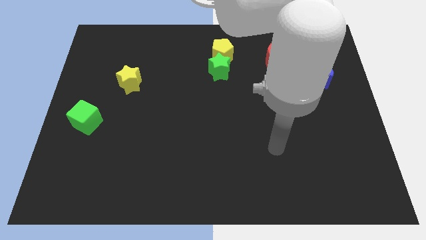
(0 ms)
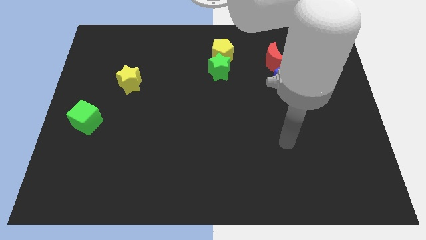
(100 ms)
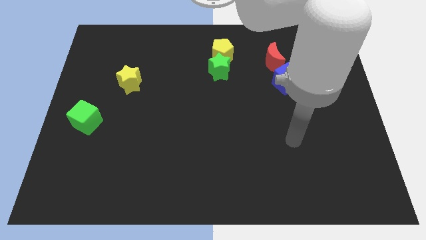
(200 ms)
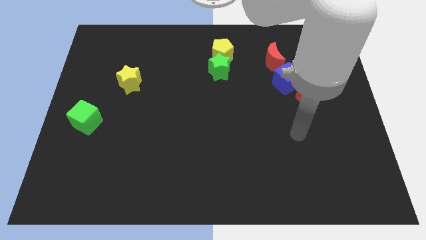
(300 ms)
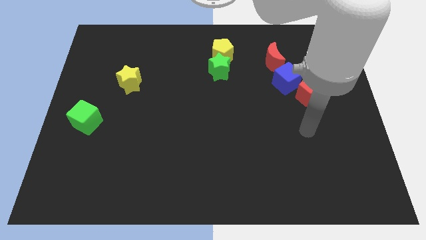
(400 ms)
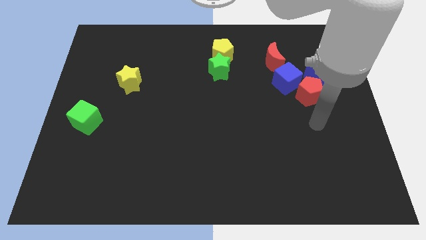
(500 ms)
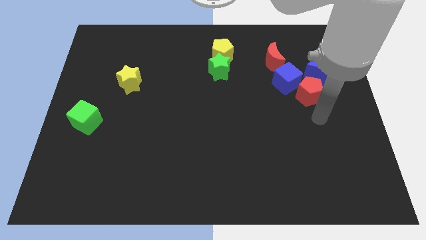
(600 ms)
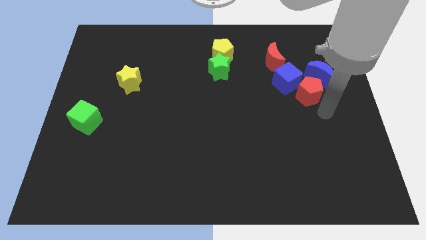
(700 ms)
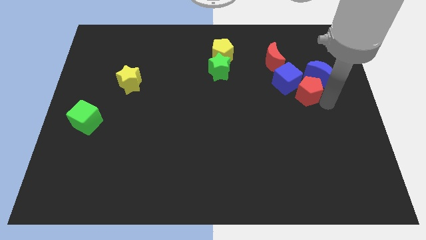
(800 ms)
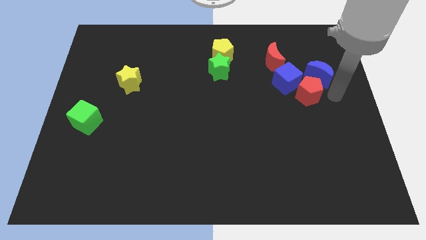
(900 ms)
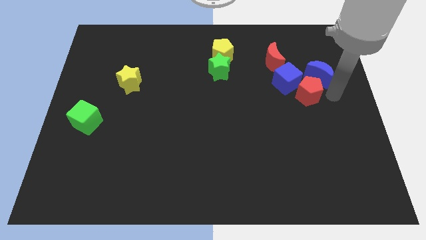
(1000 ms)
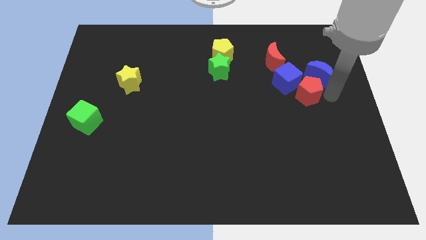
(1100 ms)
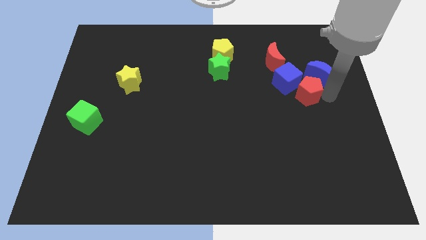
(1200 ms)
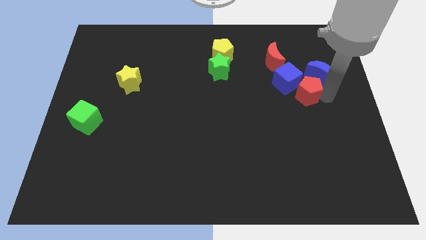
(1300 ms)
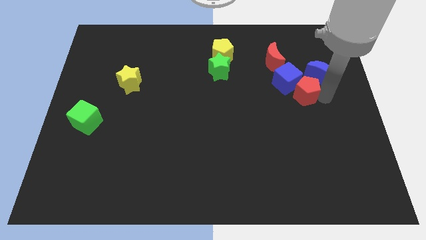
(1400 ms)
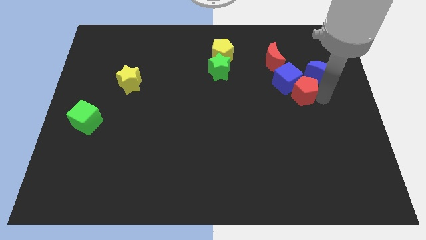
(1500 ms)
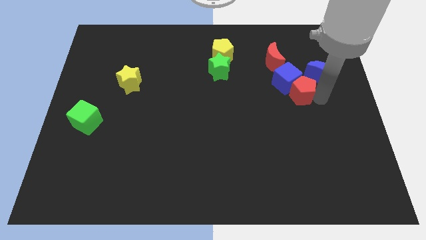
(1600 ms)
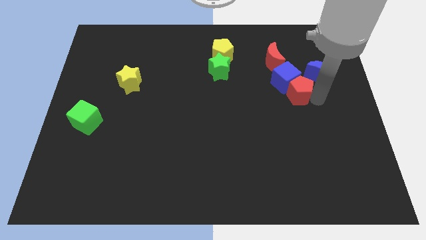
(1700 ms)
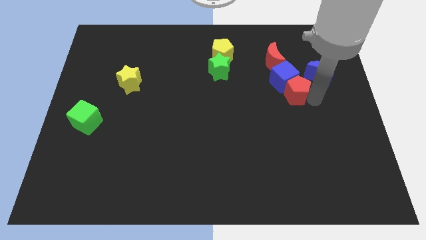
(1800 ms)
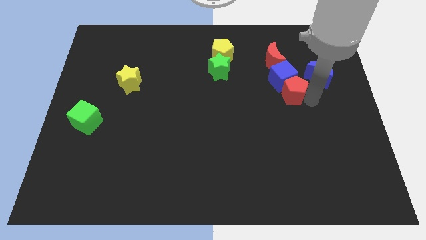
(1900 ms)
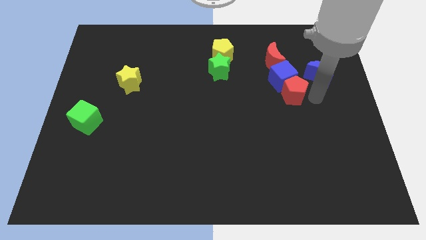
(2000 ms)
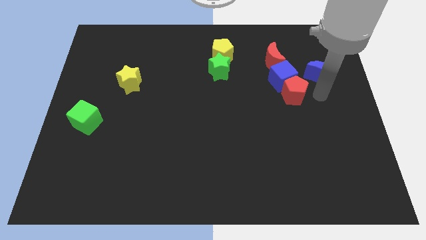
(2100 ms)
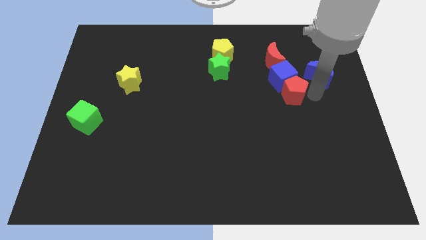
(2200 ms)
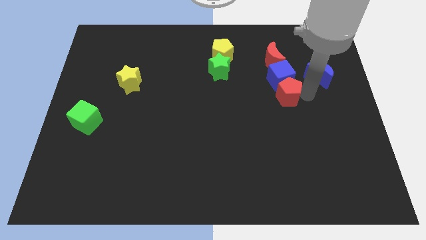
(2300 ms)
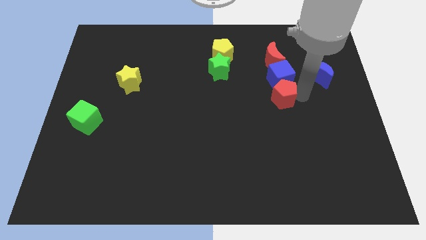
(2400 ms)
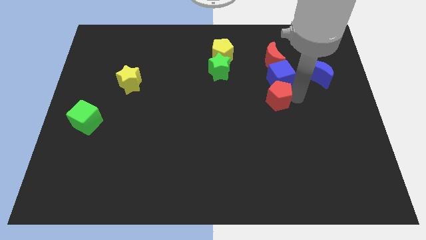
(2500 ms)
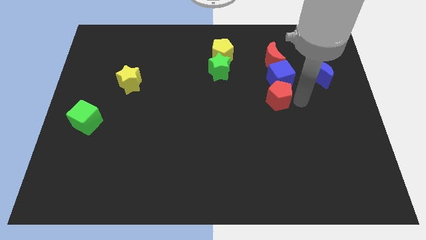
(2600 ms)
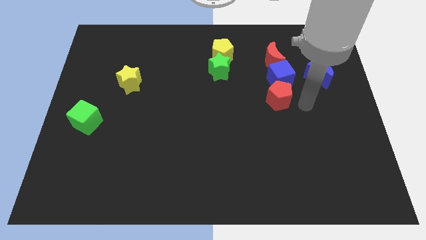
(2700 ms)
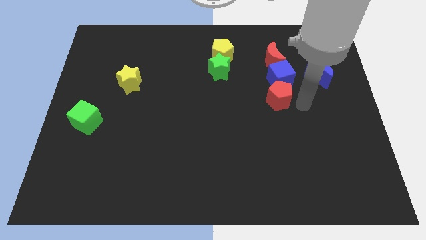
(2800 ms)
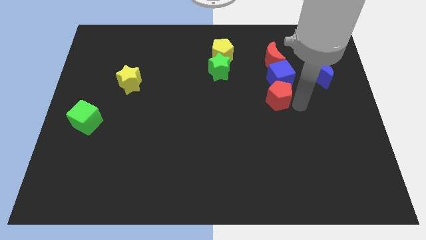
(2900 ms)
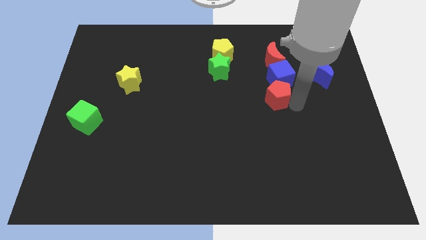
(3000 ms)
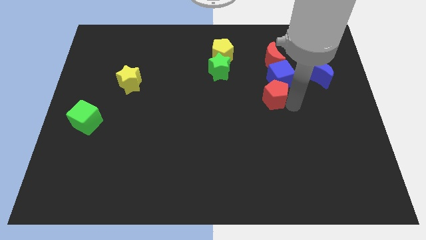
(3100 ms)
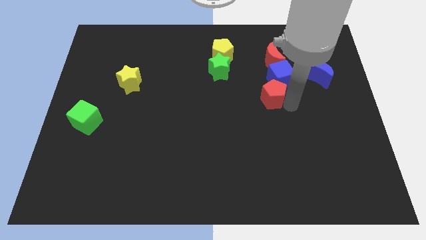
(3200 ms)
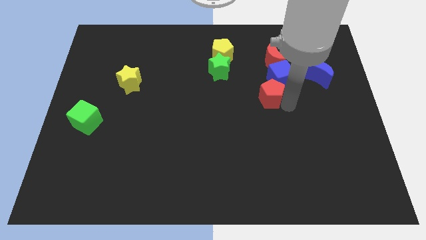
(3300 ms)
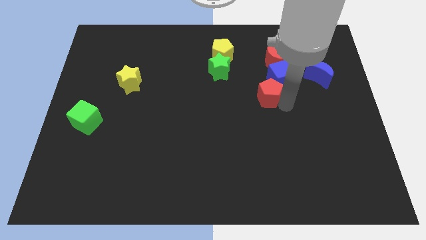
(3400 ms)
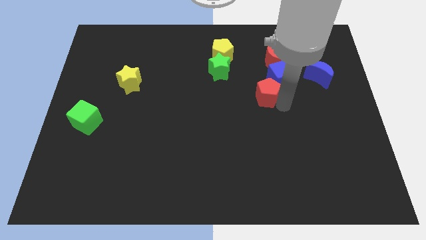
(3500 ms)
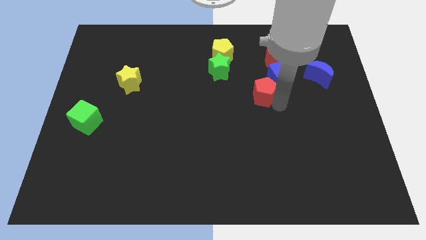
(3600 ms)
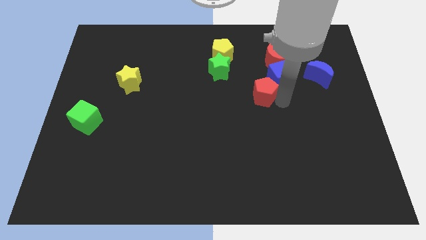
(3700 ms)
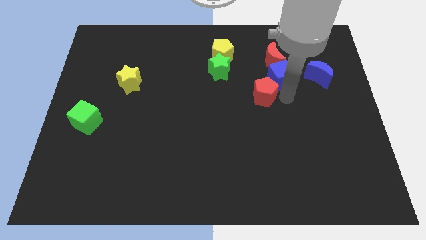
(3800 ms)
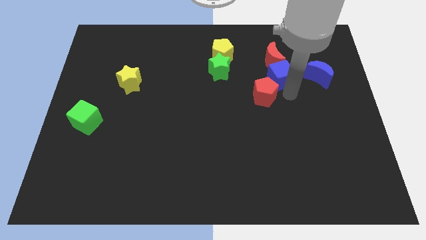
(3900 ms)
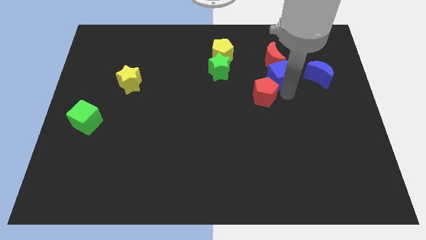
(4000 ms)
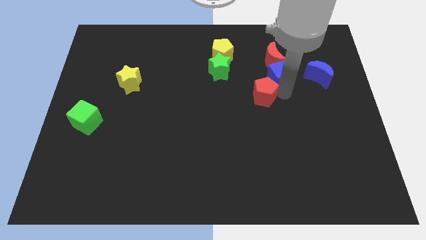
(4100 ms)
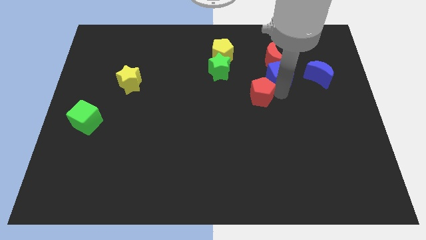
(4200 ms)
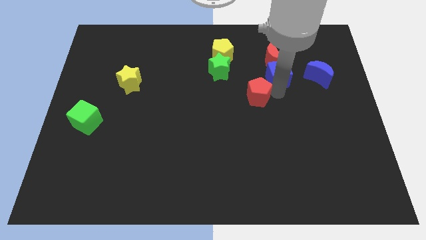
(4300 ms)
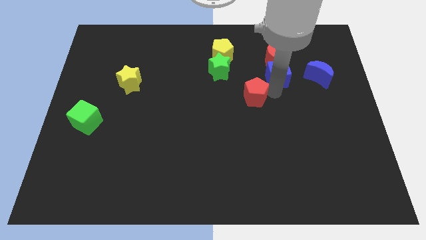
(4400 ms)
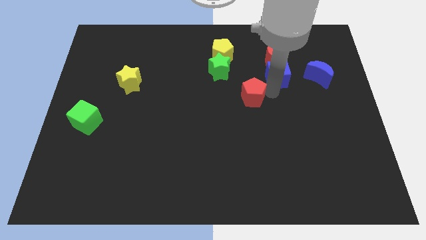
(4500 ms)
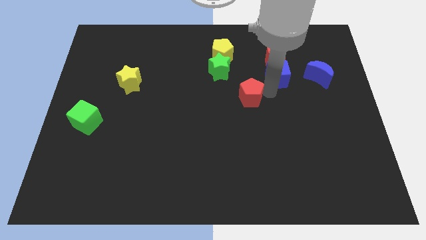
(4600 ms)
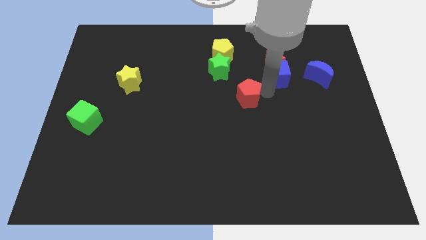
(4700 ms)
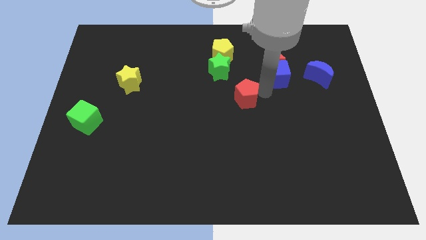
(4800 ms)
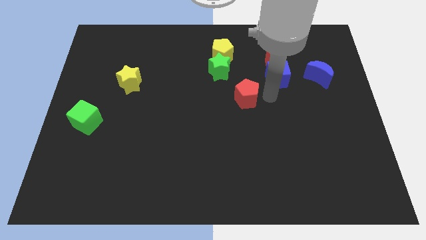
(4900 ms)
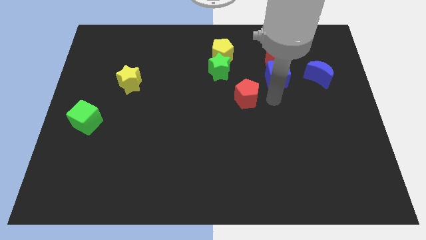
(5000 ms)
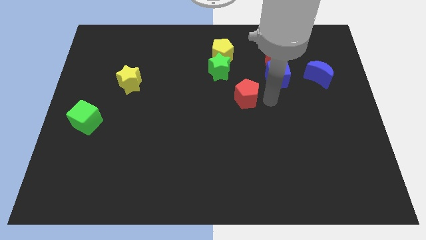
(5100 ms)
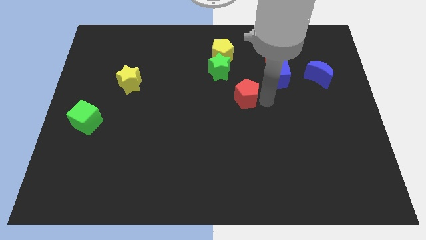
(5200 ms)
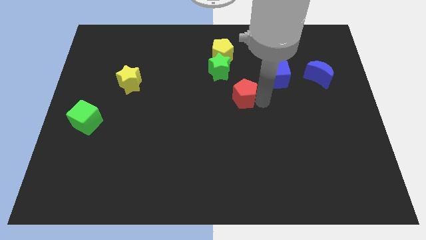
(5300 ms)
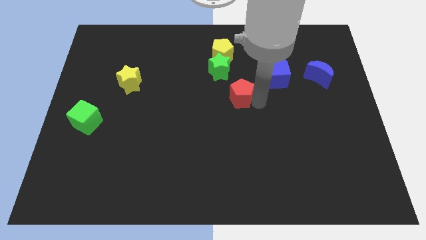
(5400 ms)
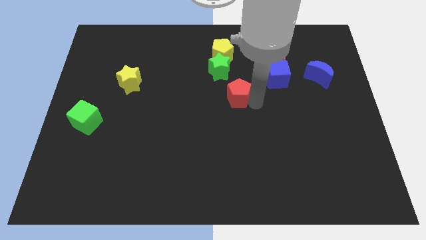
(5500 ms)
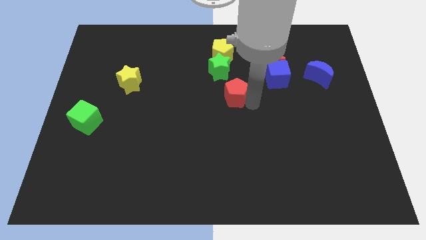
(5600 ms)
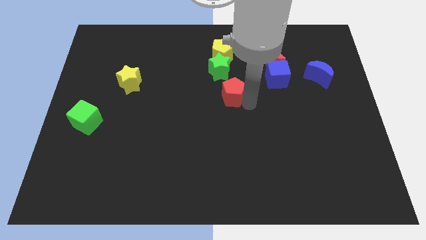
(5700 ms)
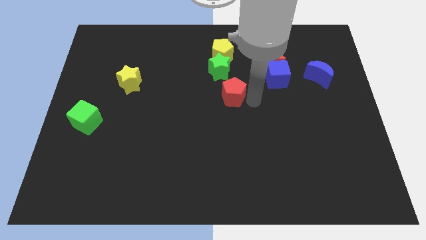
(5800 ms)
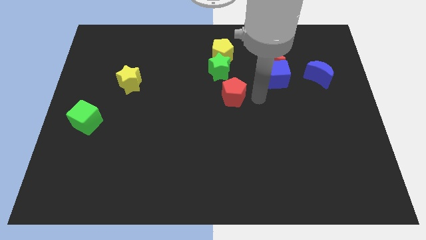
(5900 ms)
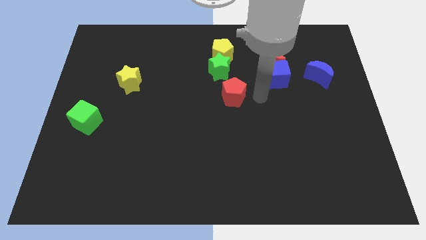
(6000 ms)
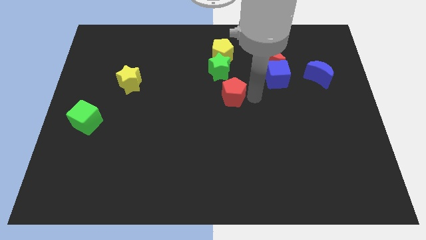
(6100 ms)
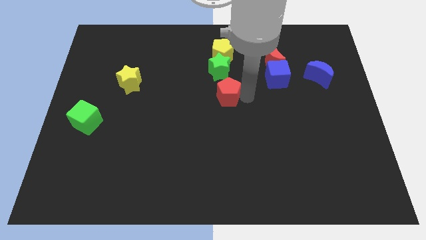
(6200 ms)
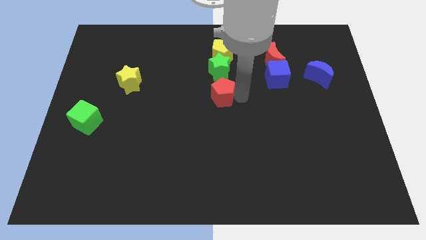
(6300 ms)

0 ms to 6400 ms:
push the red pentagon to the left

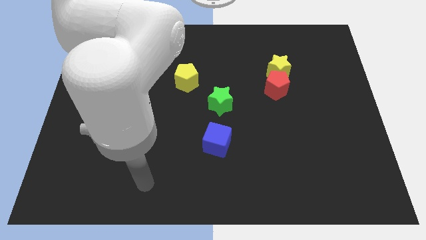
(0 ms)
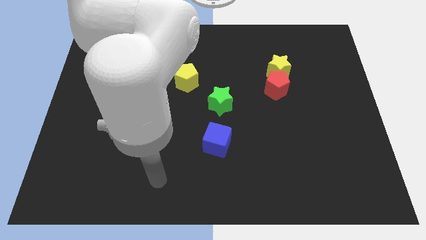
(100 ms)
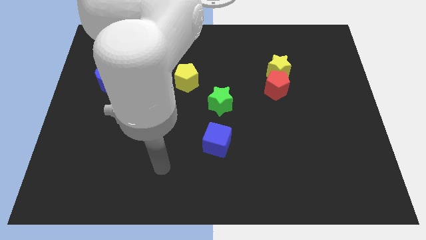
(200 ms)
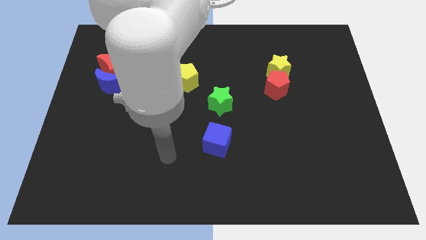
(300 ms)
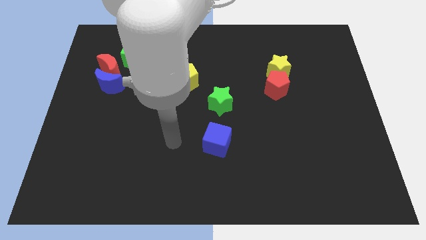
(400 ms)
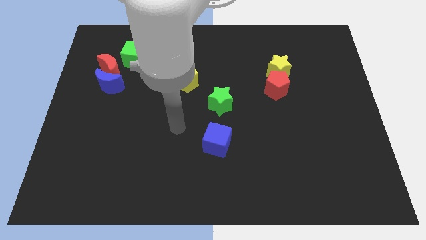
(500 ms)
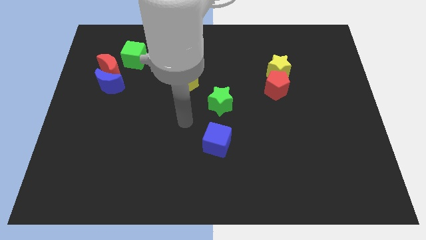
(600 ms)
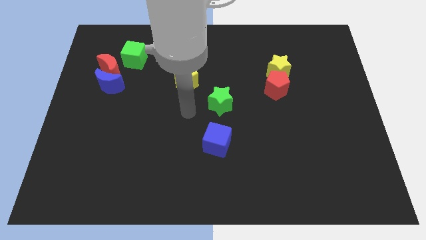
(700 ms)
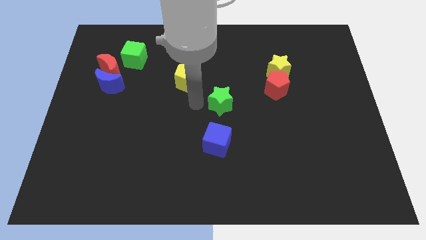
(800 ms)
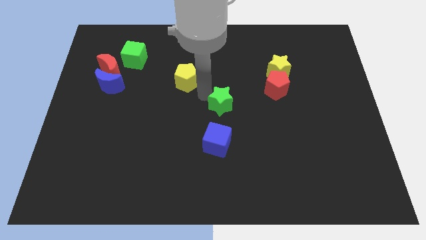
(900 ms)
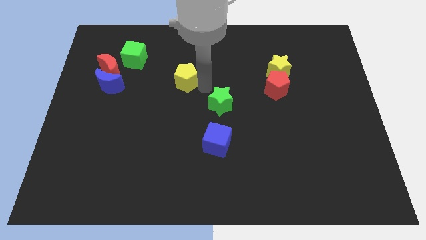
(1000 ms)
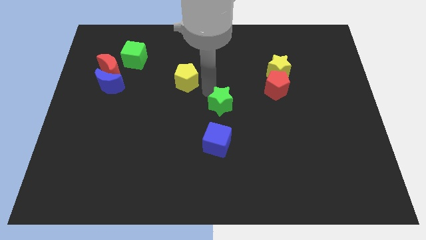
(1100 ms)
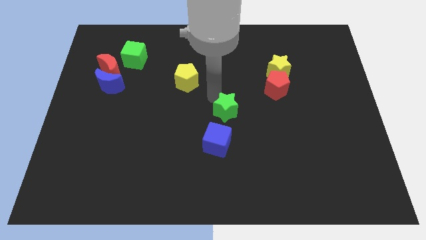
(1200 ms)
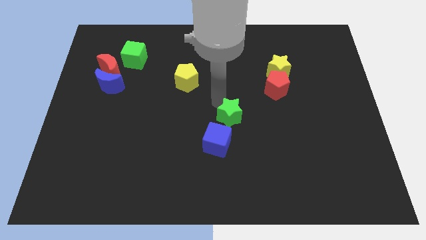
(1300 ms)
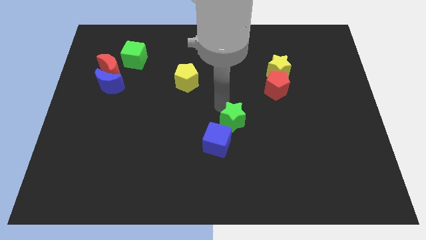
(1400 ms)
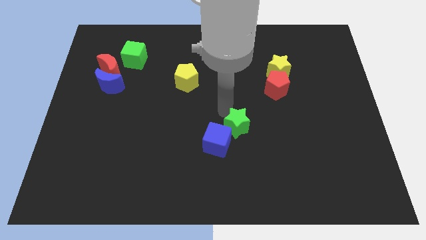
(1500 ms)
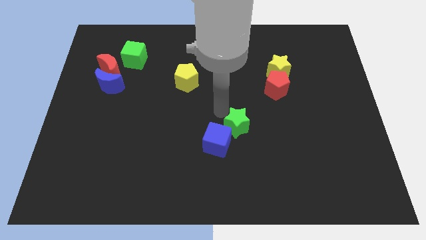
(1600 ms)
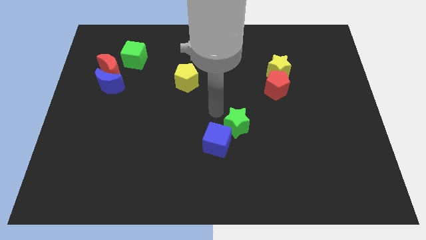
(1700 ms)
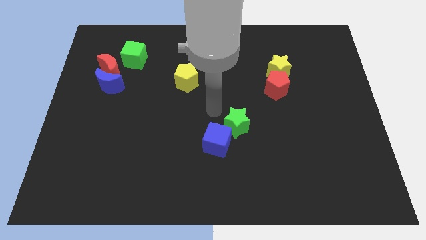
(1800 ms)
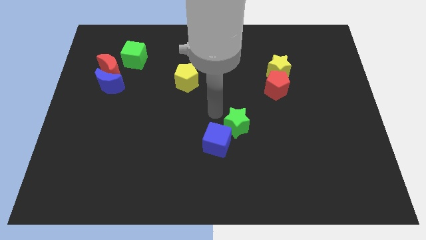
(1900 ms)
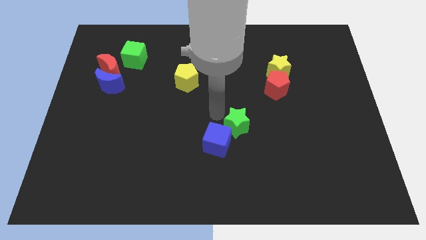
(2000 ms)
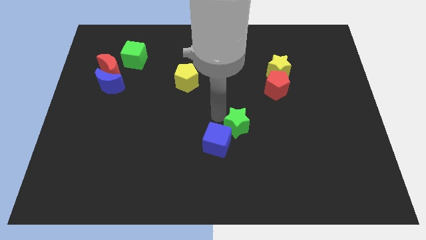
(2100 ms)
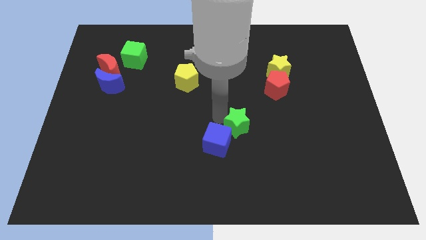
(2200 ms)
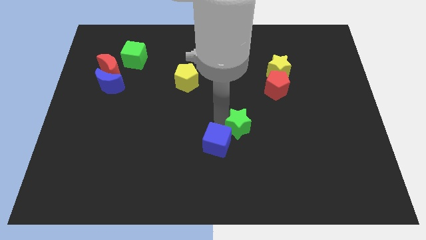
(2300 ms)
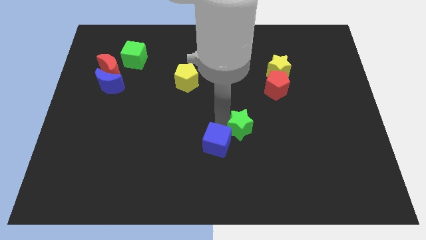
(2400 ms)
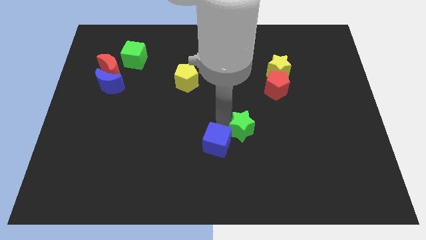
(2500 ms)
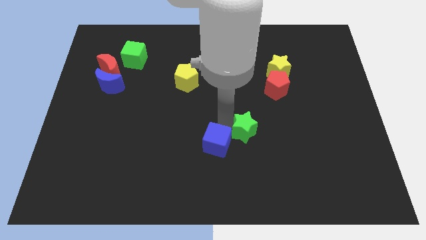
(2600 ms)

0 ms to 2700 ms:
slightly slide the green star down
